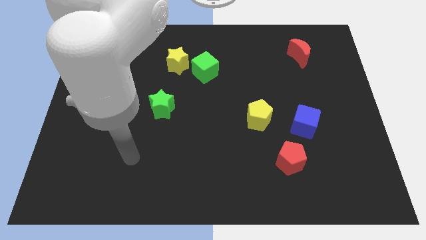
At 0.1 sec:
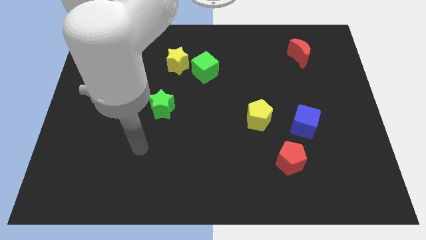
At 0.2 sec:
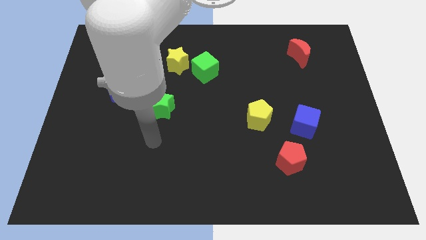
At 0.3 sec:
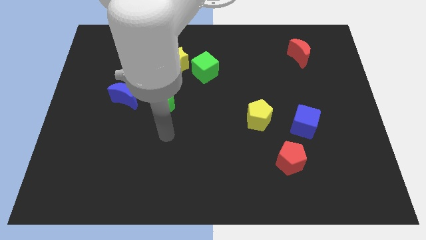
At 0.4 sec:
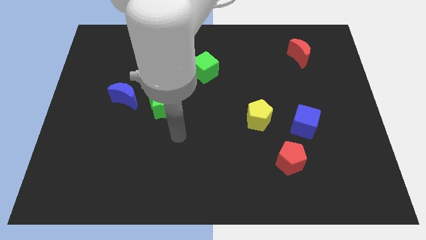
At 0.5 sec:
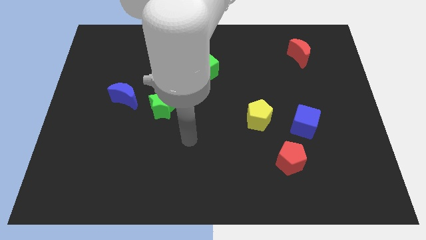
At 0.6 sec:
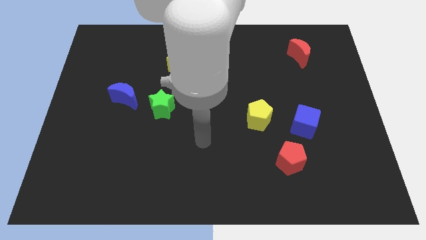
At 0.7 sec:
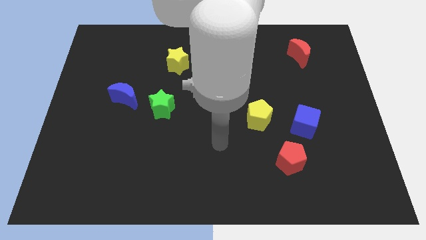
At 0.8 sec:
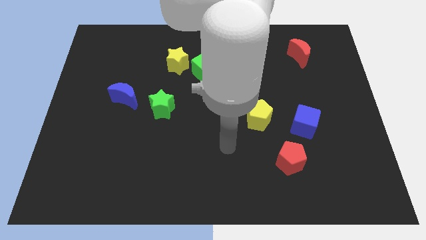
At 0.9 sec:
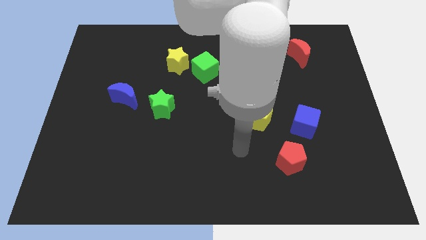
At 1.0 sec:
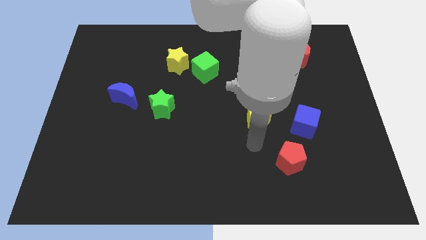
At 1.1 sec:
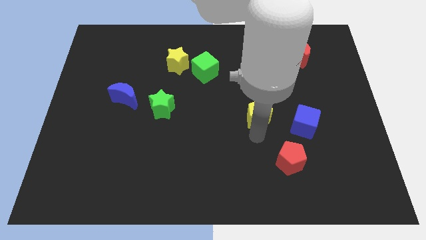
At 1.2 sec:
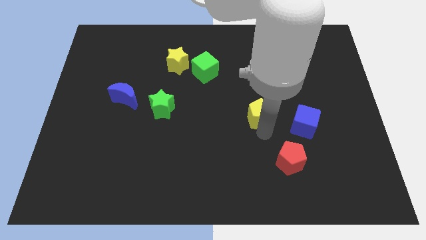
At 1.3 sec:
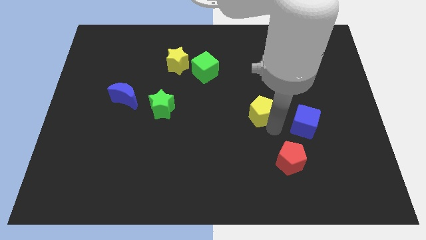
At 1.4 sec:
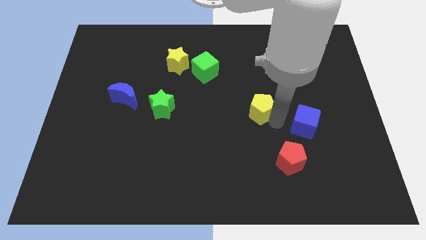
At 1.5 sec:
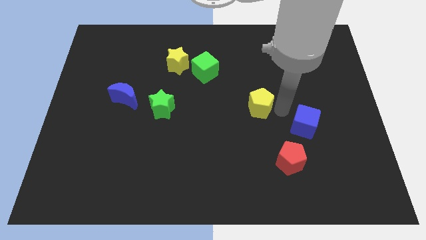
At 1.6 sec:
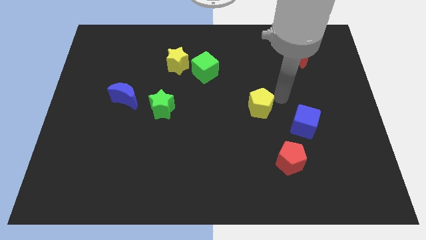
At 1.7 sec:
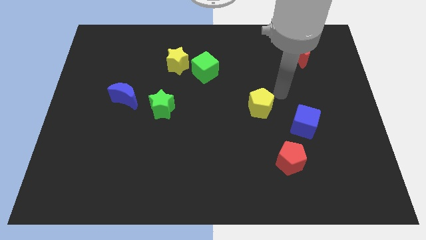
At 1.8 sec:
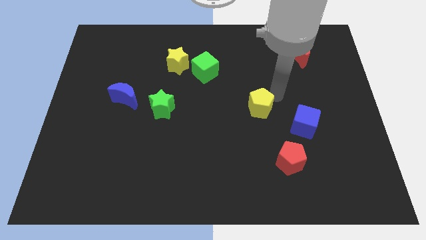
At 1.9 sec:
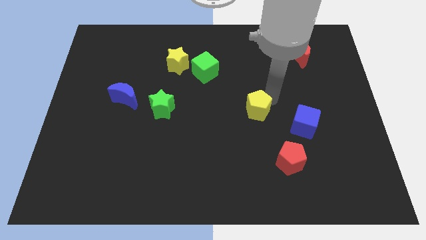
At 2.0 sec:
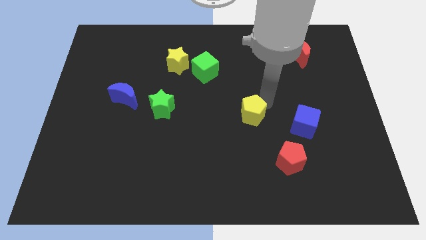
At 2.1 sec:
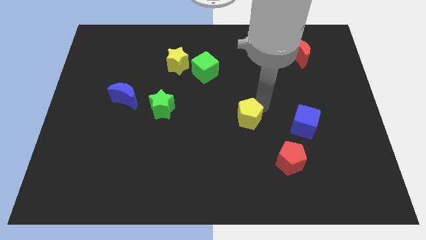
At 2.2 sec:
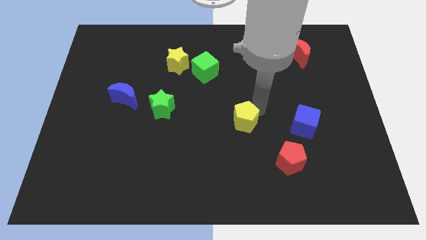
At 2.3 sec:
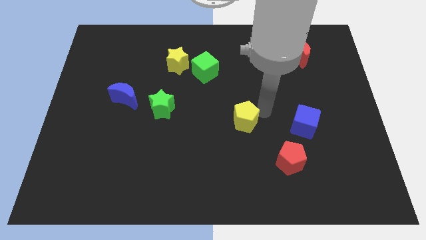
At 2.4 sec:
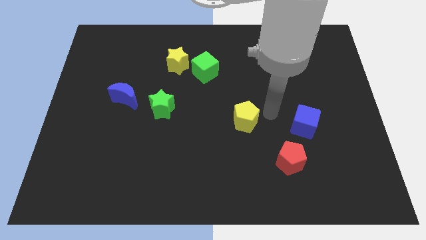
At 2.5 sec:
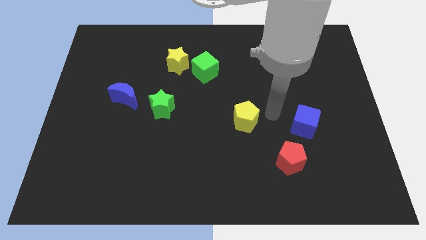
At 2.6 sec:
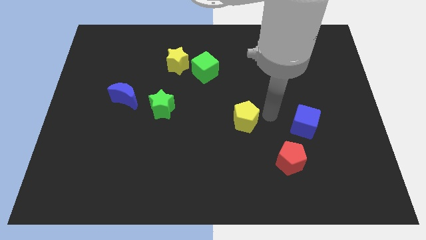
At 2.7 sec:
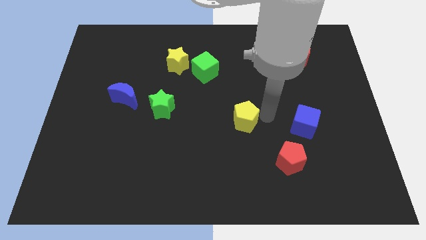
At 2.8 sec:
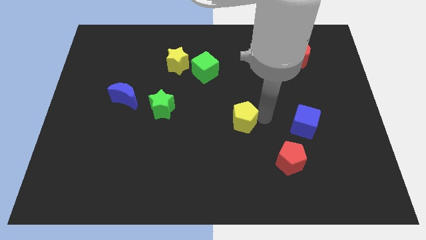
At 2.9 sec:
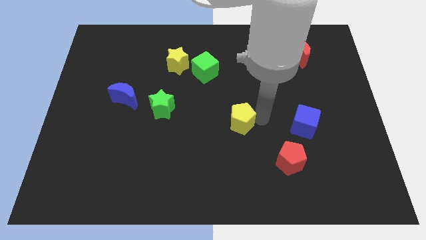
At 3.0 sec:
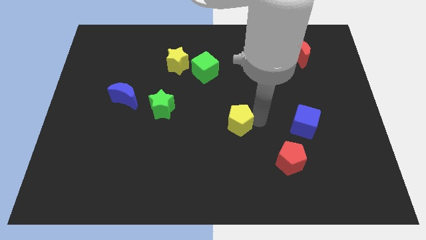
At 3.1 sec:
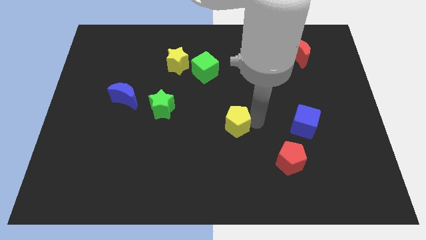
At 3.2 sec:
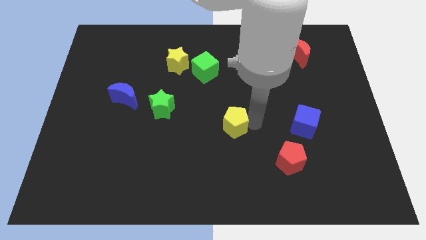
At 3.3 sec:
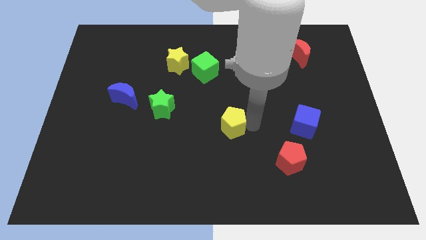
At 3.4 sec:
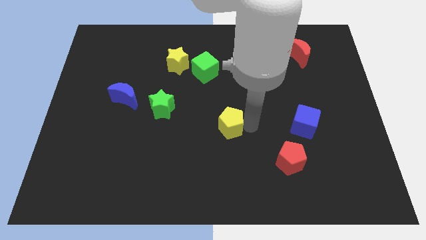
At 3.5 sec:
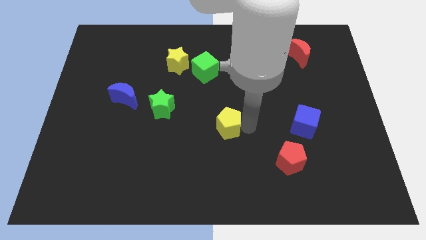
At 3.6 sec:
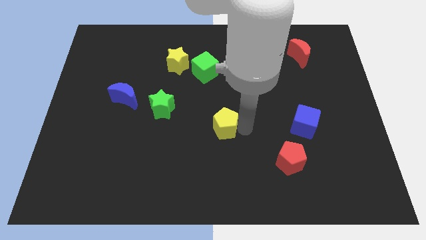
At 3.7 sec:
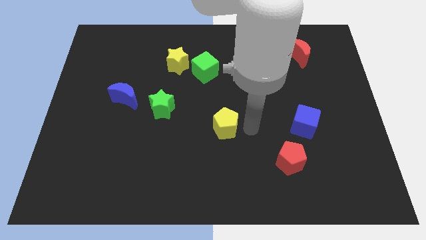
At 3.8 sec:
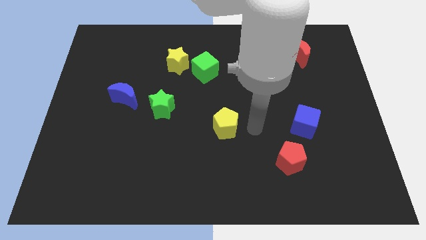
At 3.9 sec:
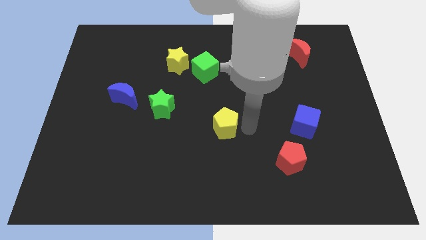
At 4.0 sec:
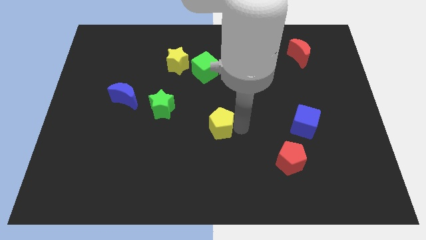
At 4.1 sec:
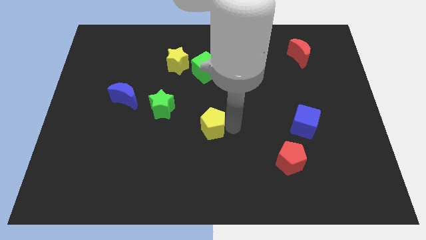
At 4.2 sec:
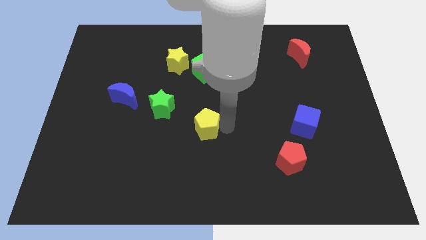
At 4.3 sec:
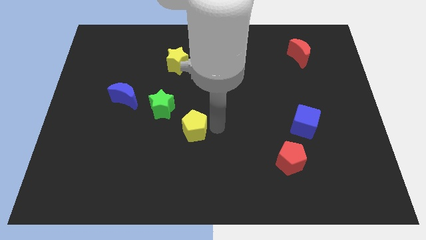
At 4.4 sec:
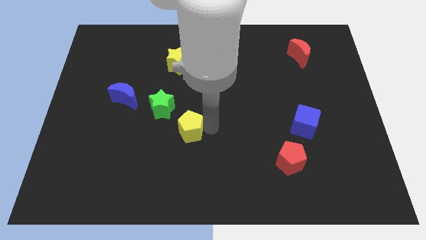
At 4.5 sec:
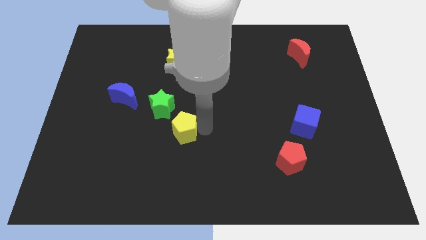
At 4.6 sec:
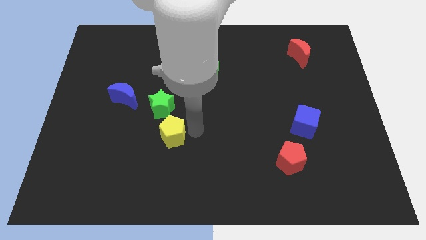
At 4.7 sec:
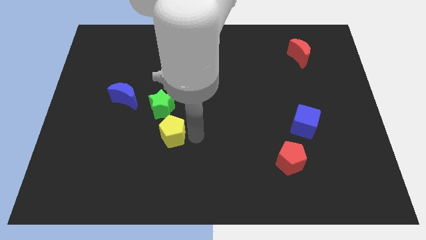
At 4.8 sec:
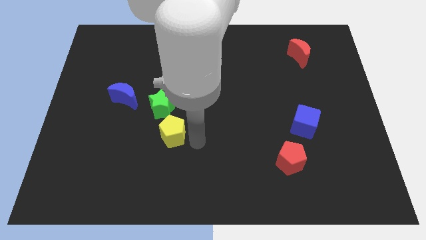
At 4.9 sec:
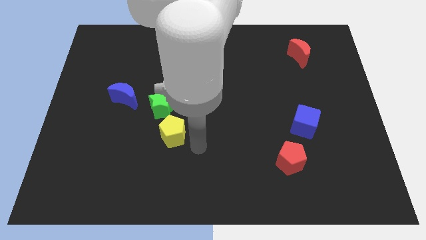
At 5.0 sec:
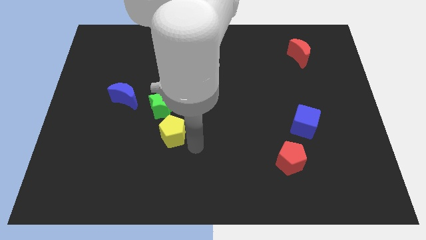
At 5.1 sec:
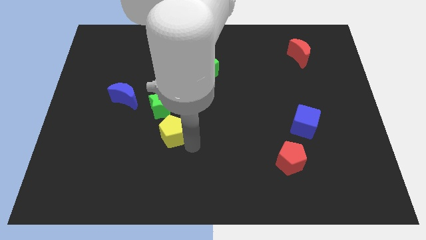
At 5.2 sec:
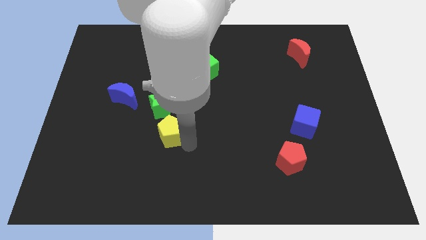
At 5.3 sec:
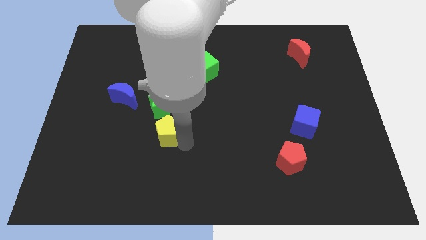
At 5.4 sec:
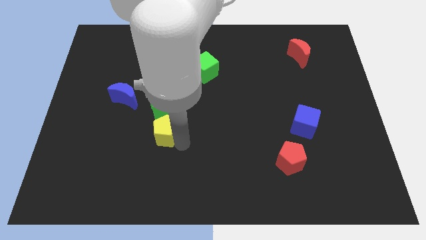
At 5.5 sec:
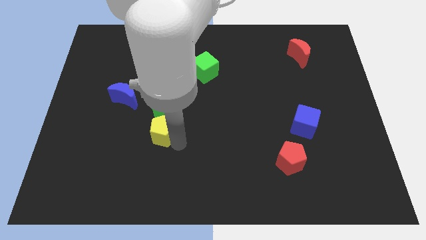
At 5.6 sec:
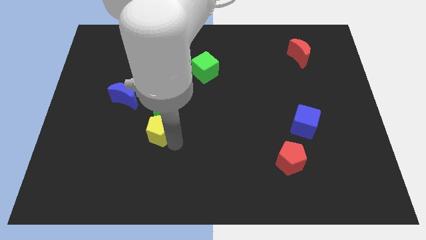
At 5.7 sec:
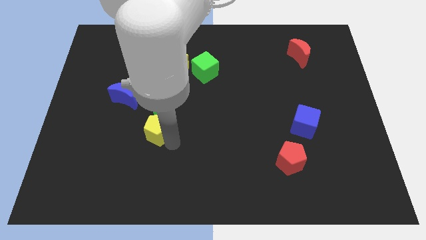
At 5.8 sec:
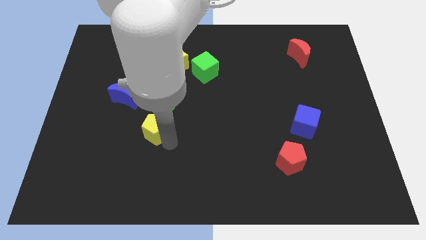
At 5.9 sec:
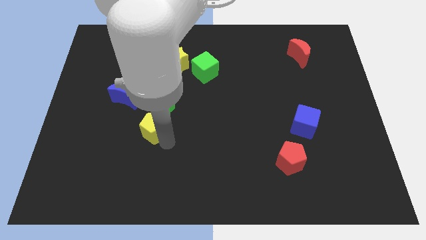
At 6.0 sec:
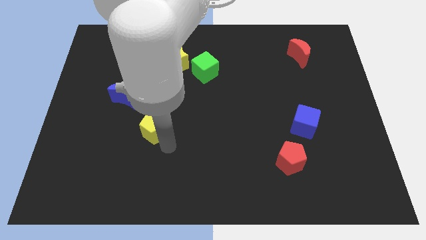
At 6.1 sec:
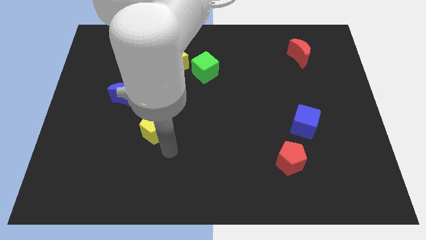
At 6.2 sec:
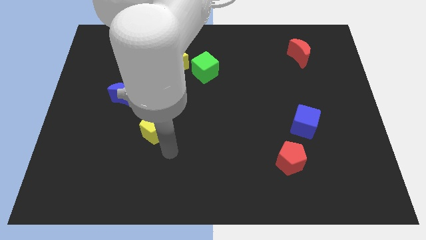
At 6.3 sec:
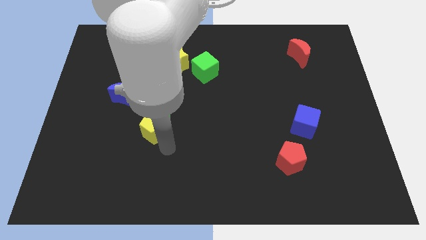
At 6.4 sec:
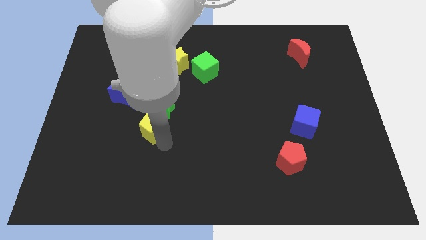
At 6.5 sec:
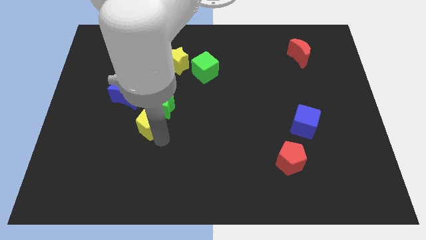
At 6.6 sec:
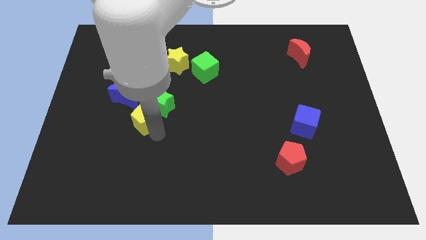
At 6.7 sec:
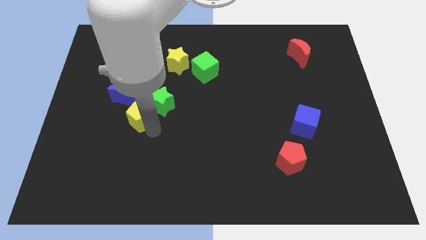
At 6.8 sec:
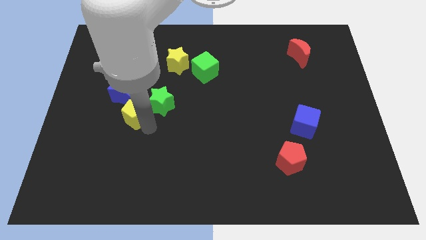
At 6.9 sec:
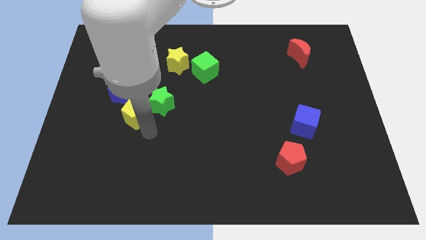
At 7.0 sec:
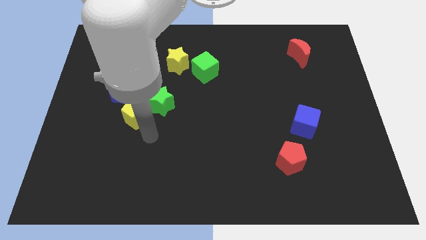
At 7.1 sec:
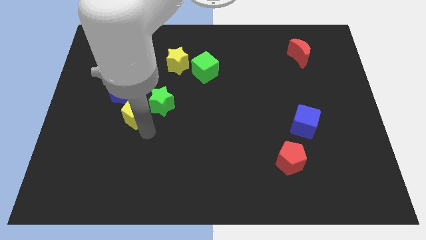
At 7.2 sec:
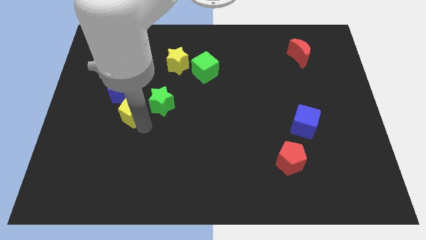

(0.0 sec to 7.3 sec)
put the yellow pentagon next to the blue moon

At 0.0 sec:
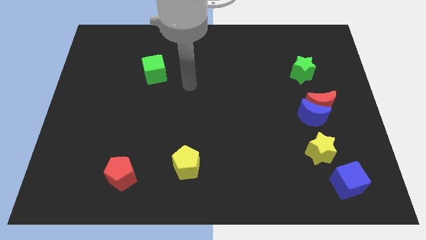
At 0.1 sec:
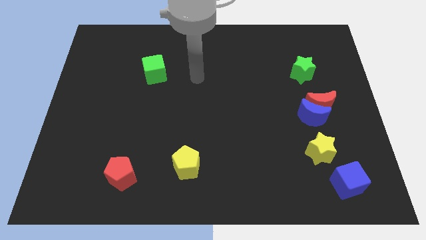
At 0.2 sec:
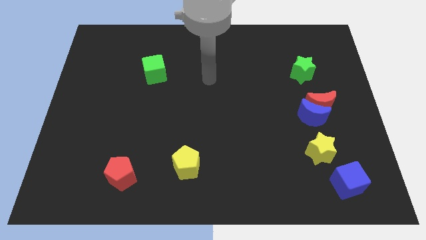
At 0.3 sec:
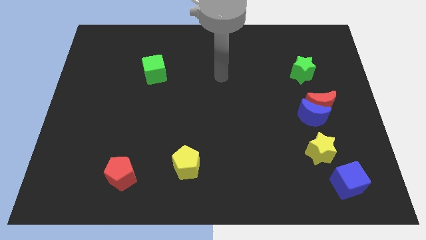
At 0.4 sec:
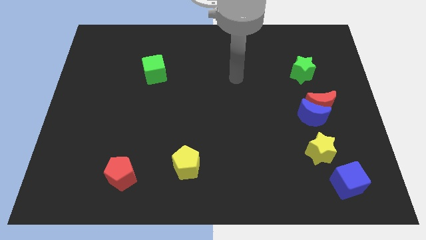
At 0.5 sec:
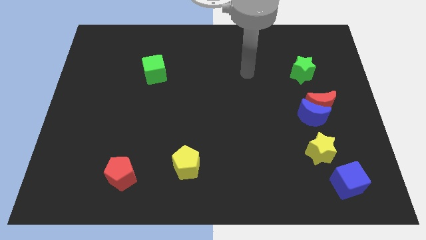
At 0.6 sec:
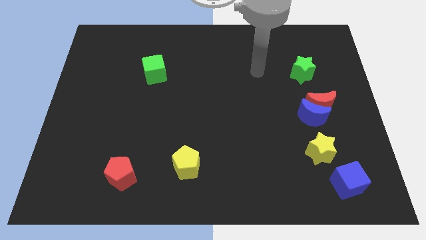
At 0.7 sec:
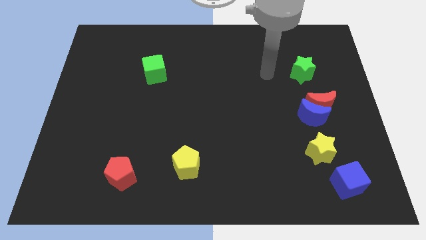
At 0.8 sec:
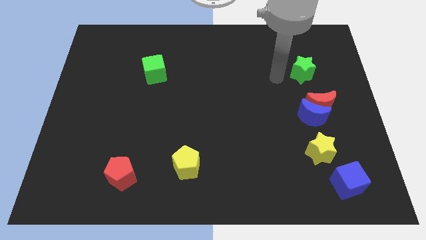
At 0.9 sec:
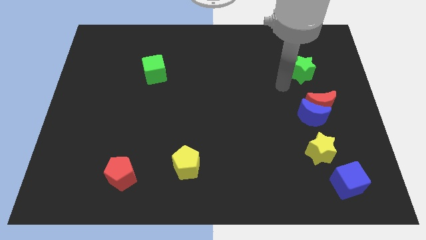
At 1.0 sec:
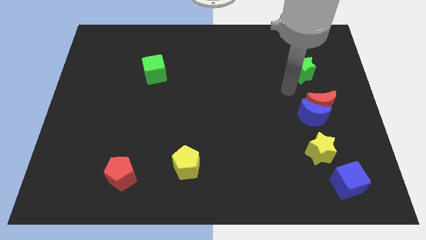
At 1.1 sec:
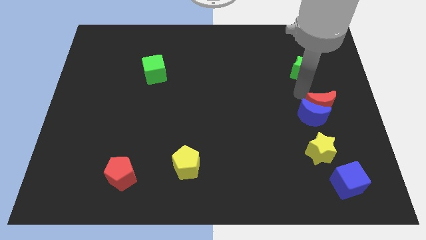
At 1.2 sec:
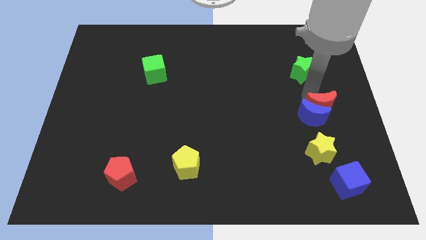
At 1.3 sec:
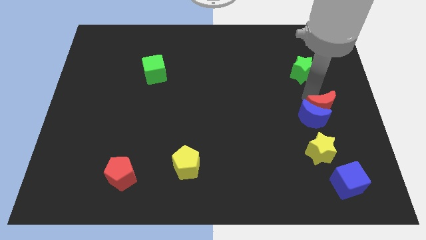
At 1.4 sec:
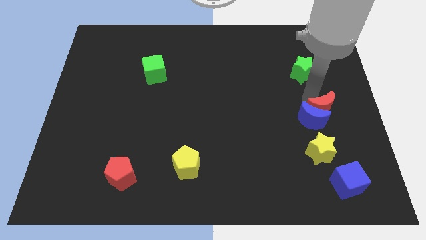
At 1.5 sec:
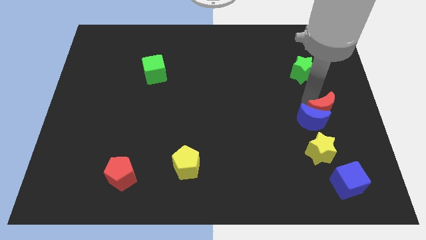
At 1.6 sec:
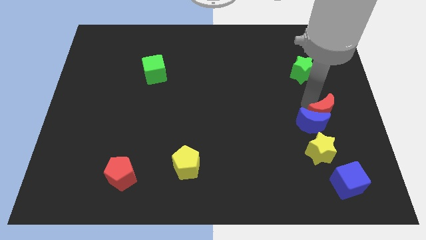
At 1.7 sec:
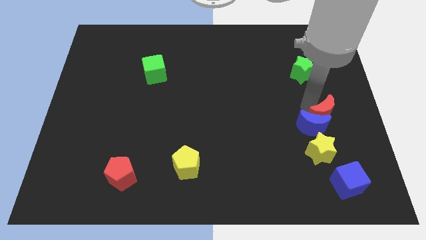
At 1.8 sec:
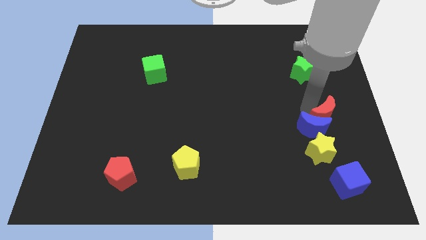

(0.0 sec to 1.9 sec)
slide the blue moon close to the yellow star
